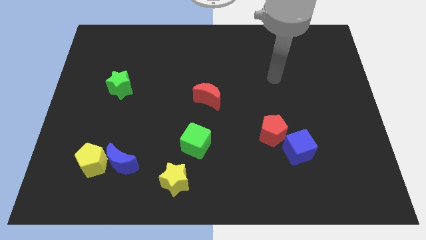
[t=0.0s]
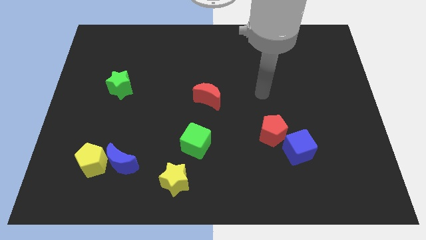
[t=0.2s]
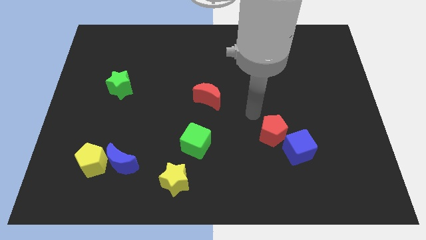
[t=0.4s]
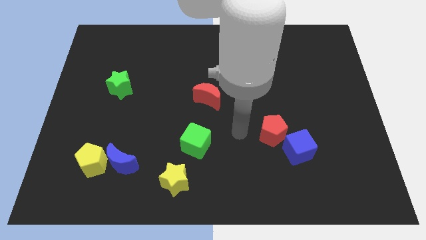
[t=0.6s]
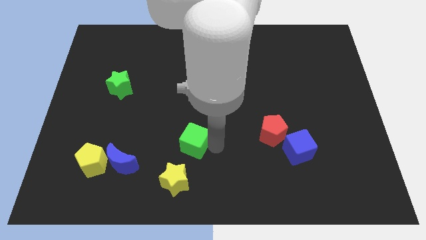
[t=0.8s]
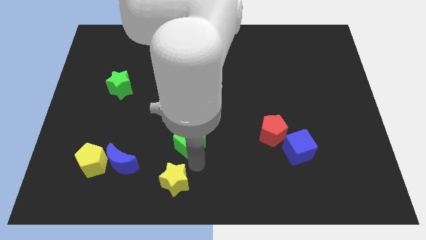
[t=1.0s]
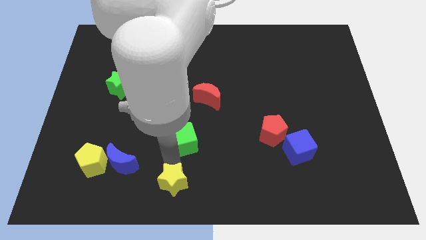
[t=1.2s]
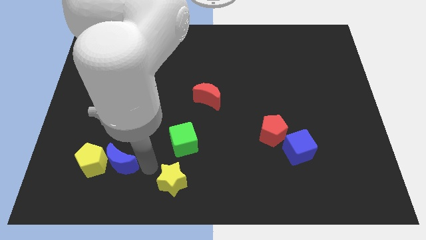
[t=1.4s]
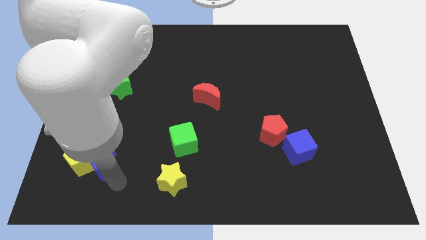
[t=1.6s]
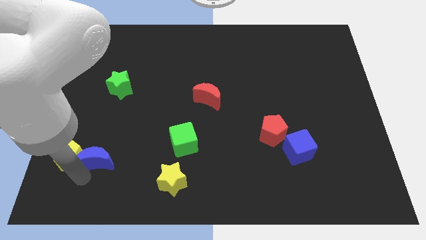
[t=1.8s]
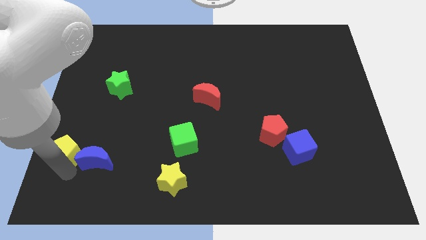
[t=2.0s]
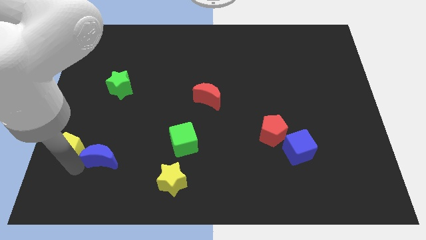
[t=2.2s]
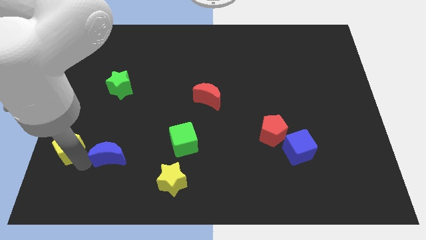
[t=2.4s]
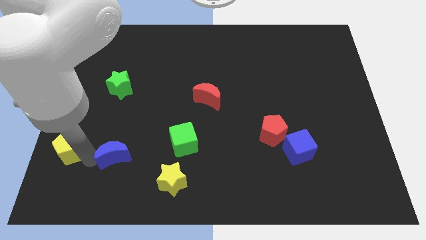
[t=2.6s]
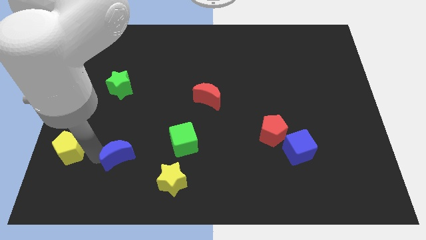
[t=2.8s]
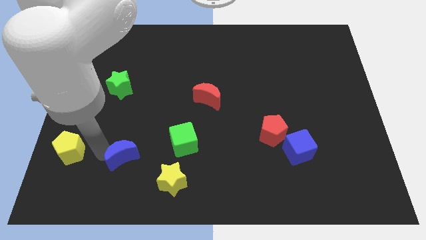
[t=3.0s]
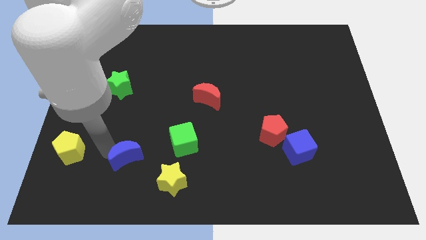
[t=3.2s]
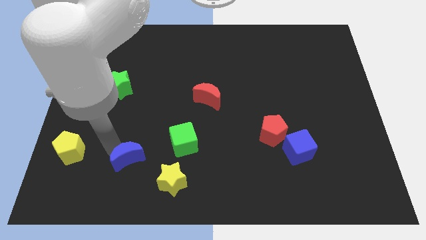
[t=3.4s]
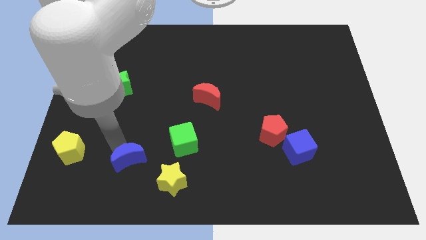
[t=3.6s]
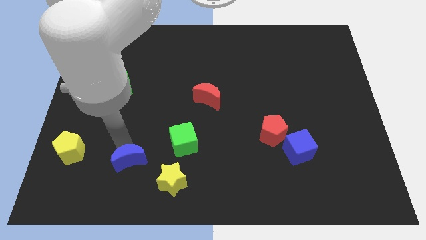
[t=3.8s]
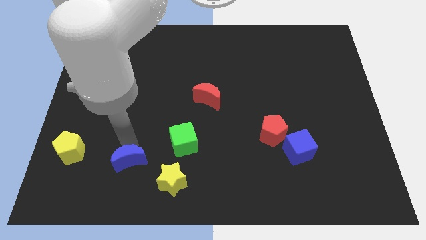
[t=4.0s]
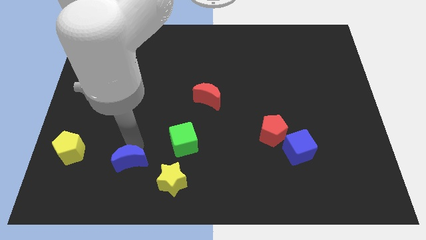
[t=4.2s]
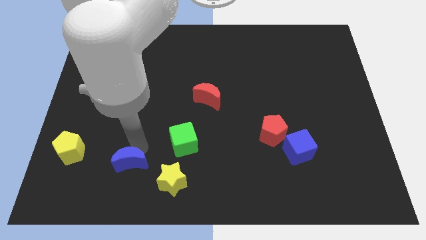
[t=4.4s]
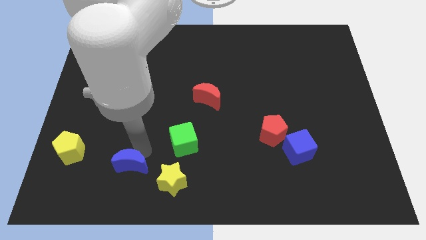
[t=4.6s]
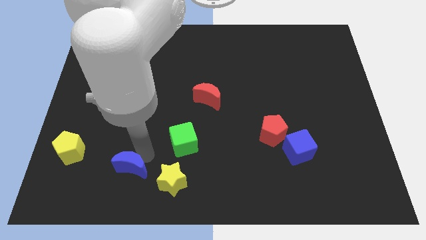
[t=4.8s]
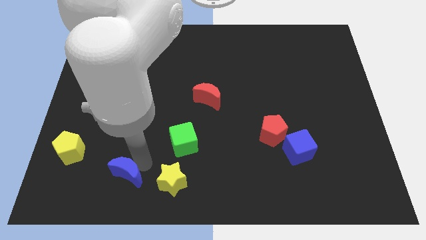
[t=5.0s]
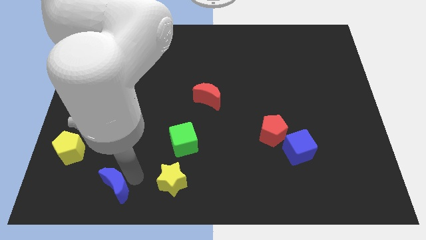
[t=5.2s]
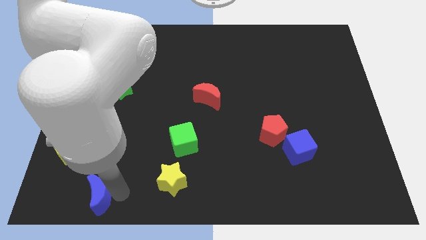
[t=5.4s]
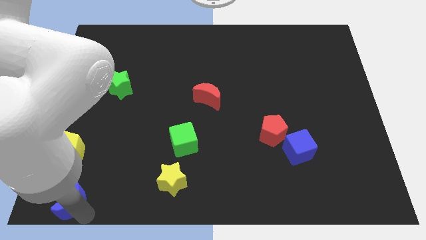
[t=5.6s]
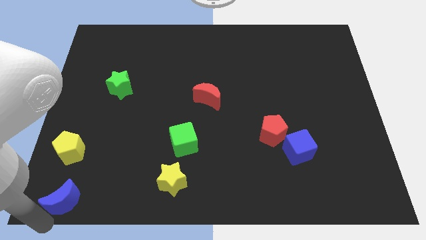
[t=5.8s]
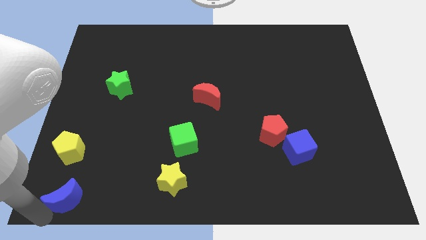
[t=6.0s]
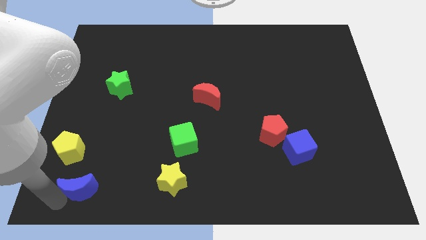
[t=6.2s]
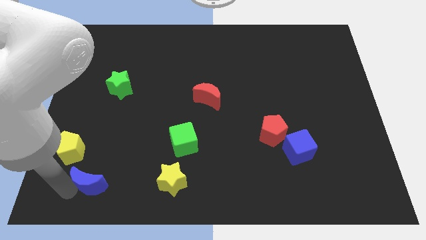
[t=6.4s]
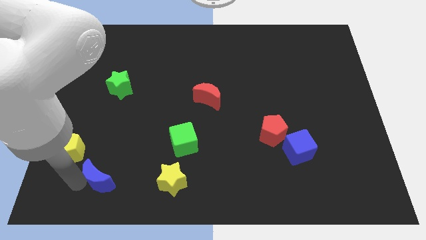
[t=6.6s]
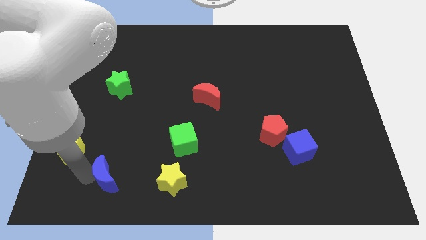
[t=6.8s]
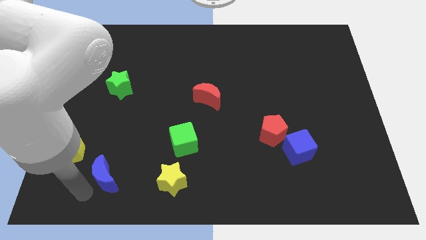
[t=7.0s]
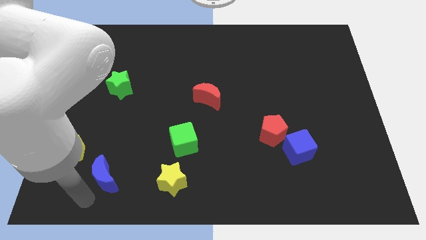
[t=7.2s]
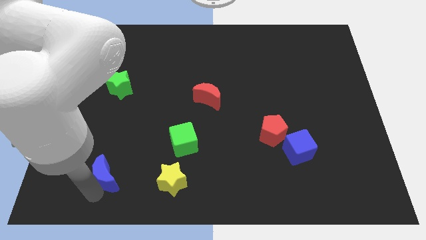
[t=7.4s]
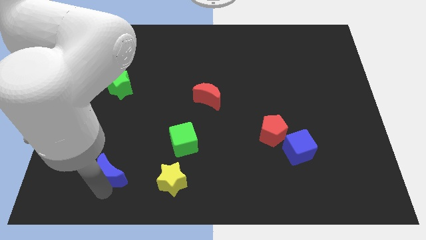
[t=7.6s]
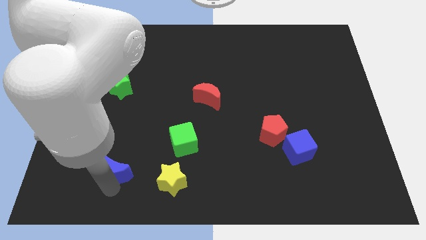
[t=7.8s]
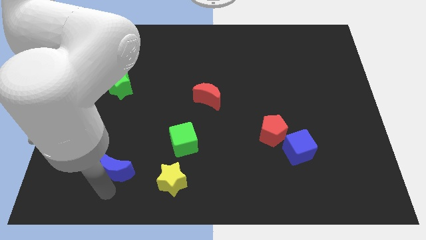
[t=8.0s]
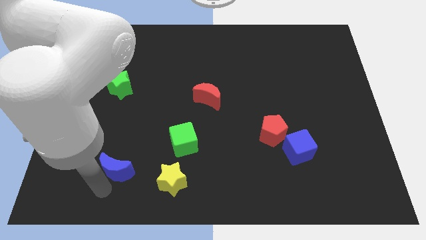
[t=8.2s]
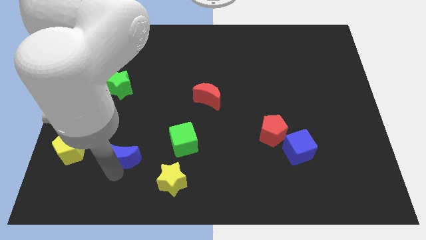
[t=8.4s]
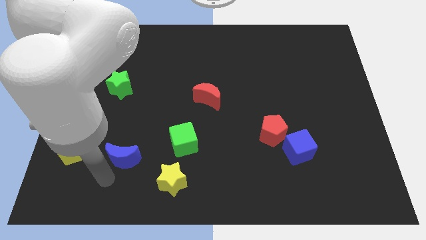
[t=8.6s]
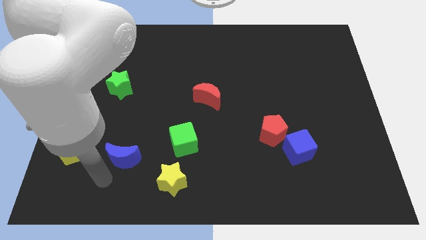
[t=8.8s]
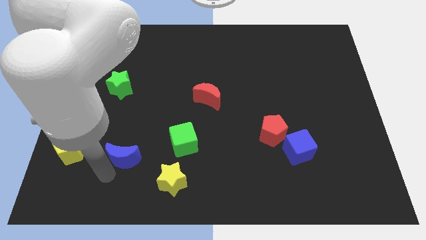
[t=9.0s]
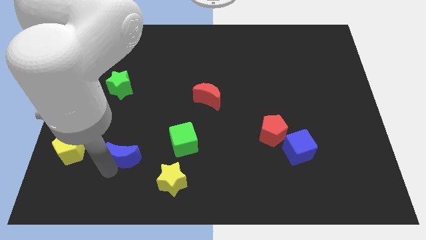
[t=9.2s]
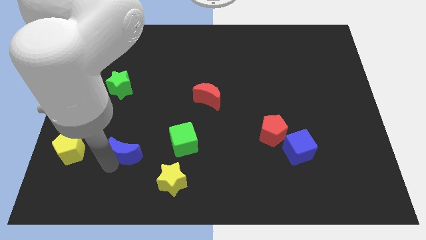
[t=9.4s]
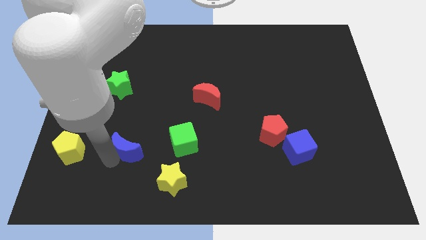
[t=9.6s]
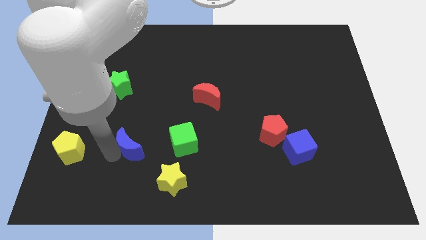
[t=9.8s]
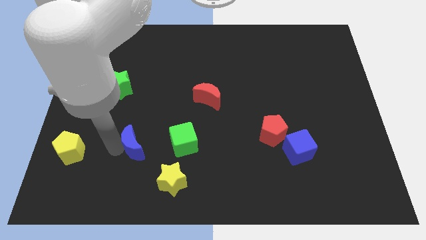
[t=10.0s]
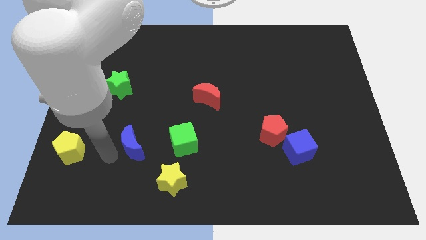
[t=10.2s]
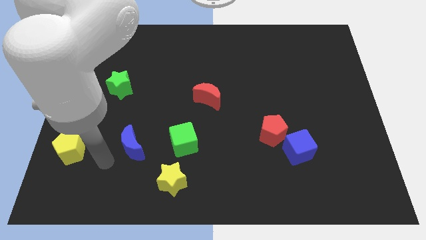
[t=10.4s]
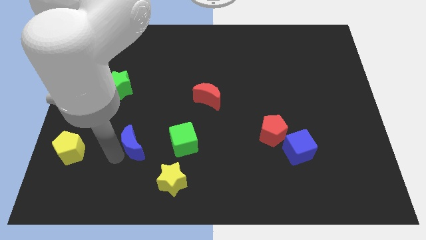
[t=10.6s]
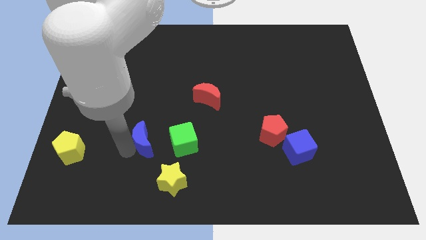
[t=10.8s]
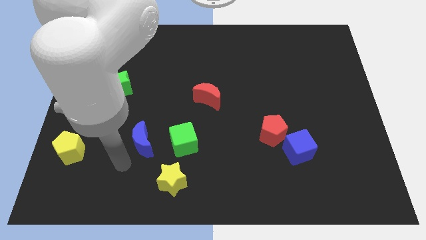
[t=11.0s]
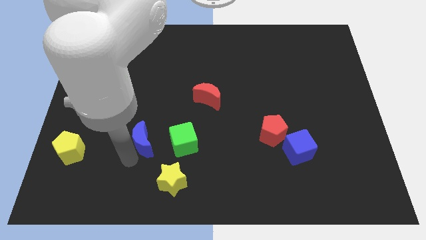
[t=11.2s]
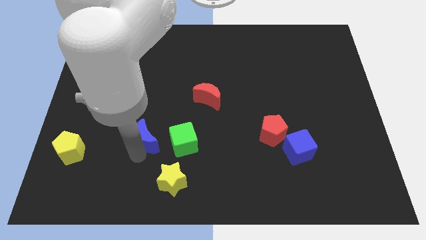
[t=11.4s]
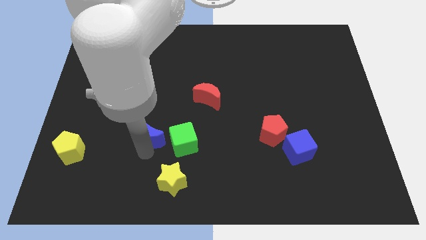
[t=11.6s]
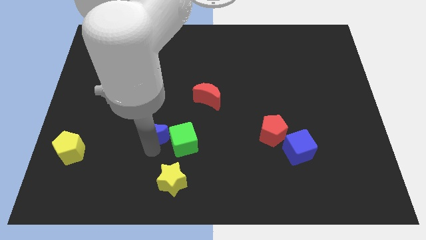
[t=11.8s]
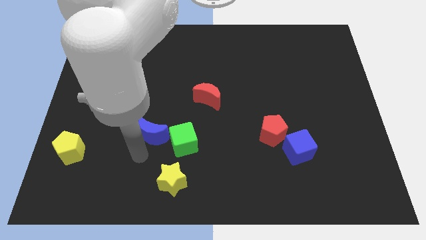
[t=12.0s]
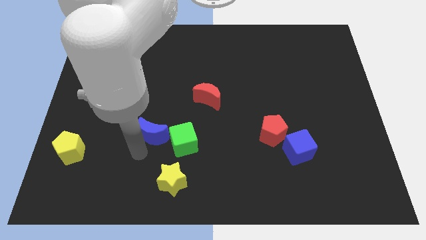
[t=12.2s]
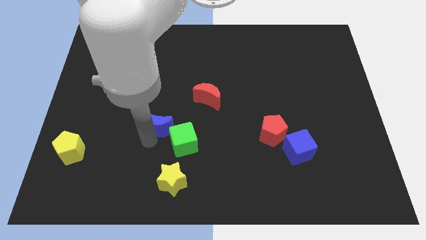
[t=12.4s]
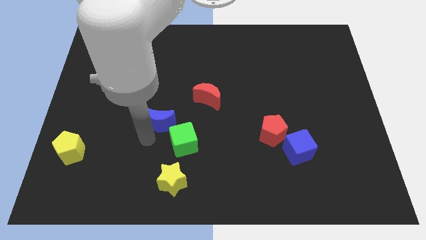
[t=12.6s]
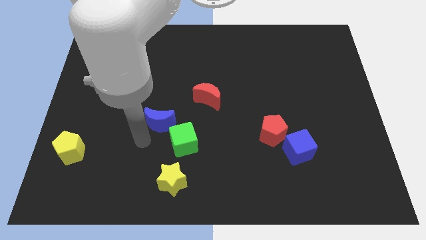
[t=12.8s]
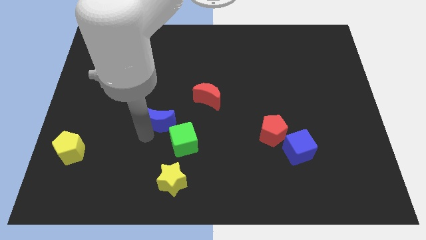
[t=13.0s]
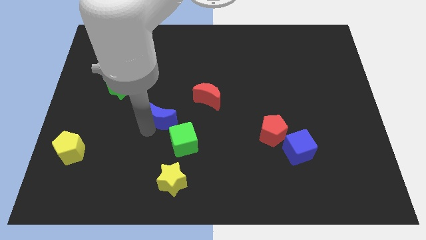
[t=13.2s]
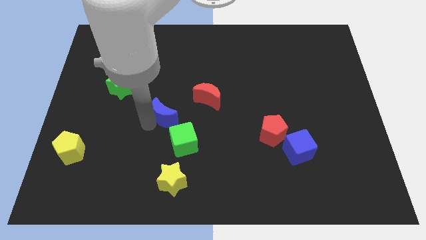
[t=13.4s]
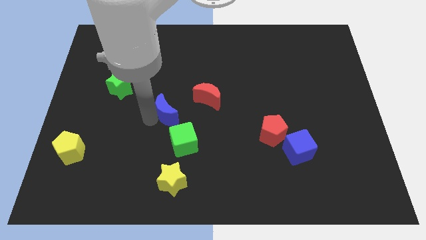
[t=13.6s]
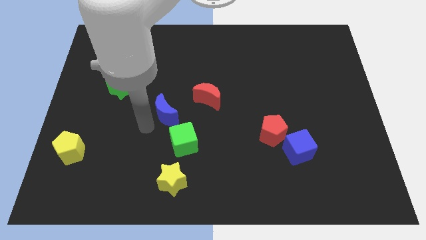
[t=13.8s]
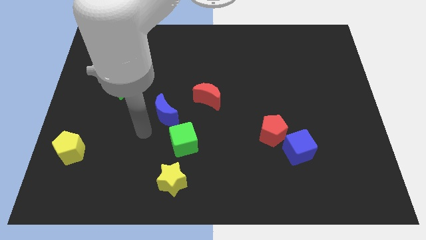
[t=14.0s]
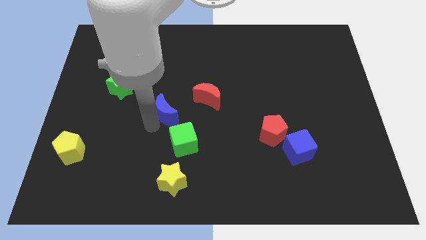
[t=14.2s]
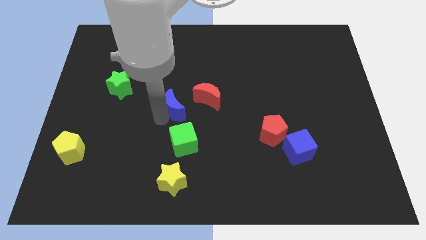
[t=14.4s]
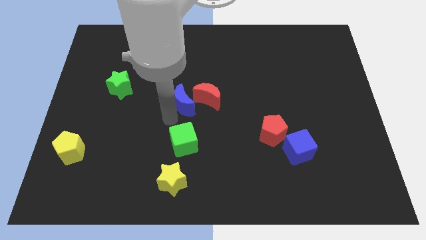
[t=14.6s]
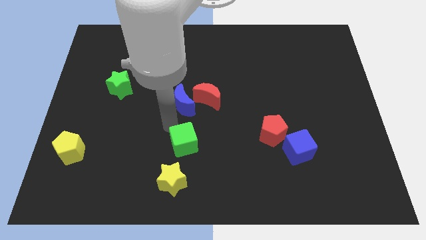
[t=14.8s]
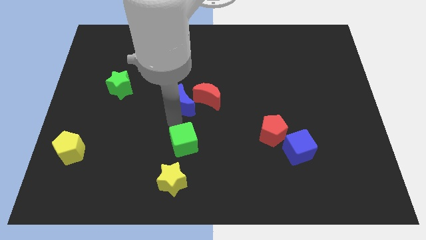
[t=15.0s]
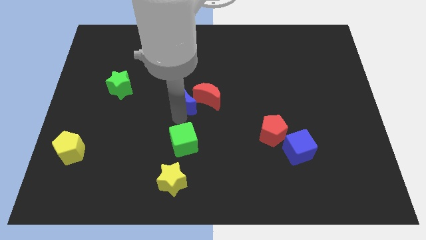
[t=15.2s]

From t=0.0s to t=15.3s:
move the blue moon up and to the right

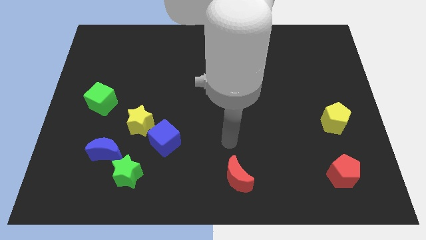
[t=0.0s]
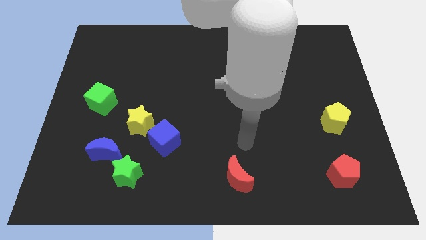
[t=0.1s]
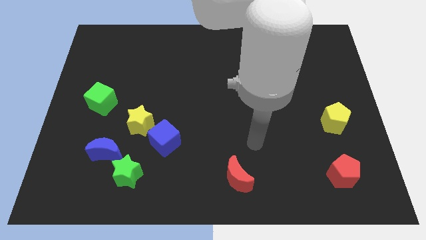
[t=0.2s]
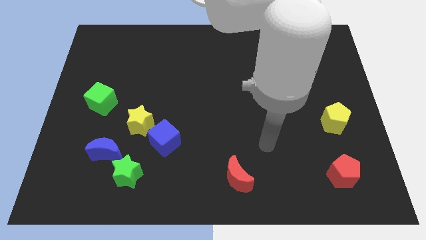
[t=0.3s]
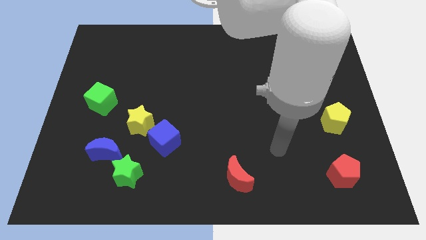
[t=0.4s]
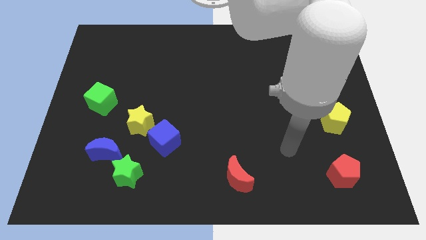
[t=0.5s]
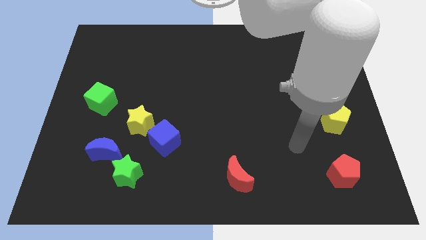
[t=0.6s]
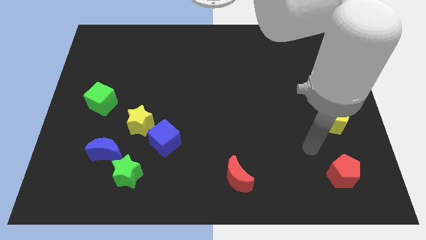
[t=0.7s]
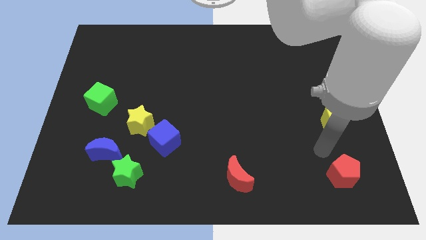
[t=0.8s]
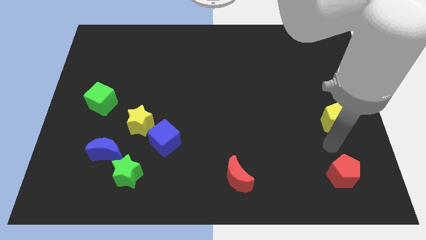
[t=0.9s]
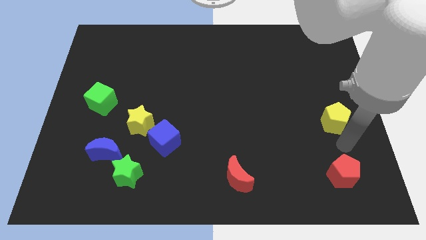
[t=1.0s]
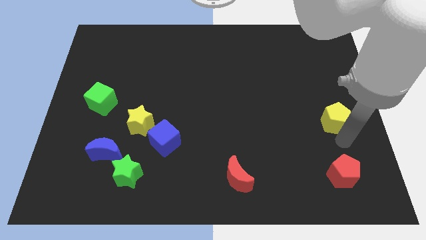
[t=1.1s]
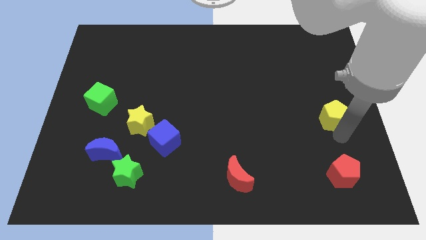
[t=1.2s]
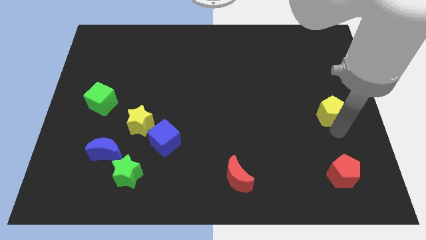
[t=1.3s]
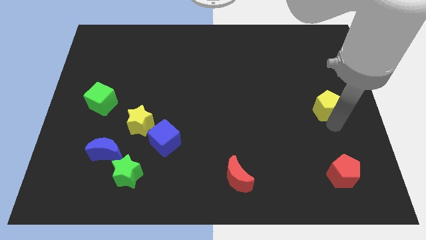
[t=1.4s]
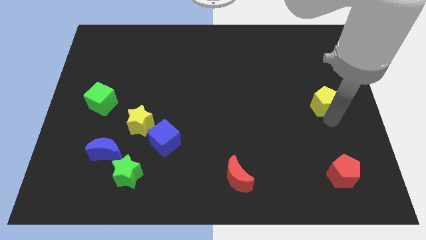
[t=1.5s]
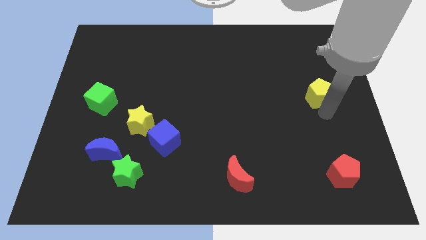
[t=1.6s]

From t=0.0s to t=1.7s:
slightly slide the yellow pentagon up
